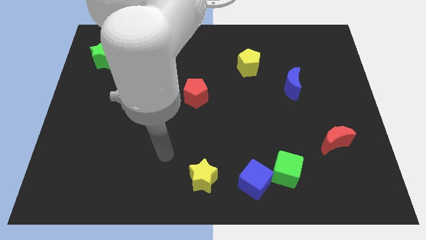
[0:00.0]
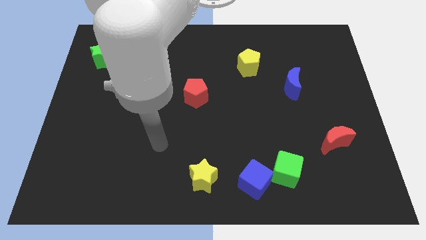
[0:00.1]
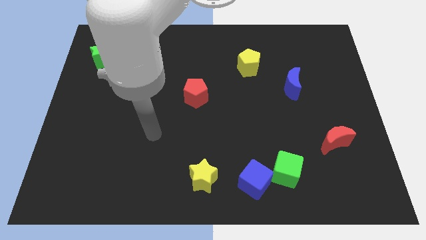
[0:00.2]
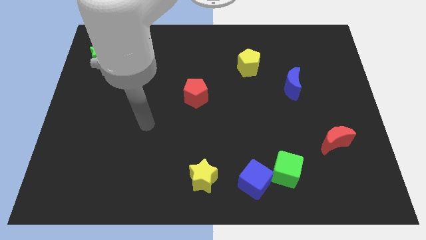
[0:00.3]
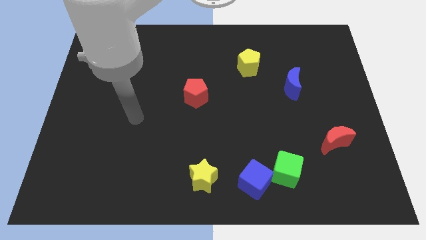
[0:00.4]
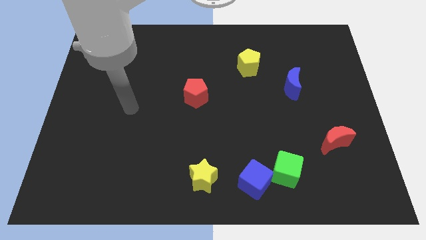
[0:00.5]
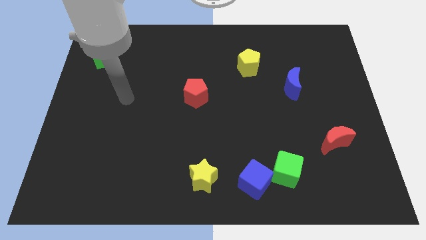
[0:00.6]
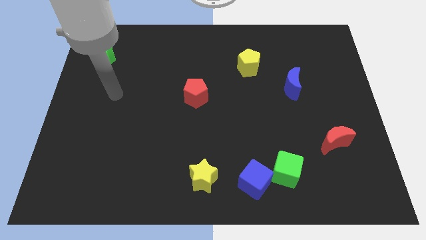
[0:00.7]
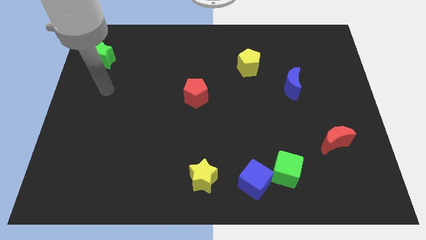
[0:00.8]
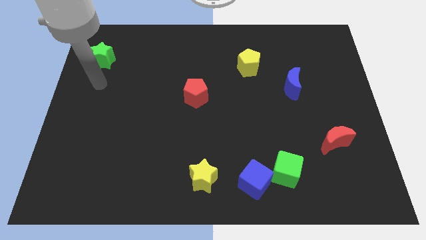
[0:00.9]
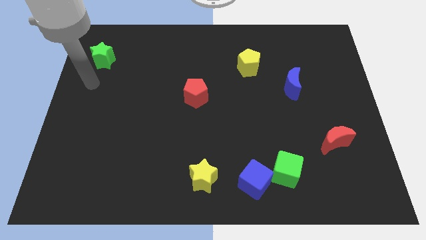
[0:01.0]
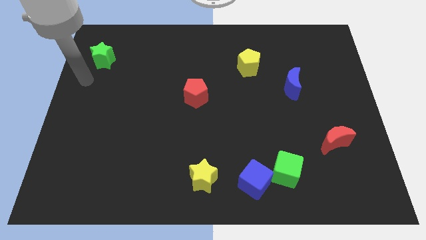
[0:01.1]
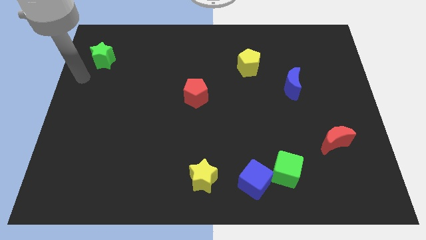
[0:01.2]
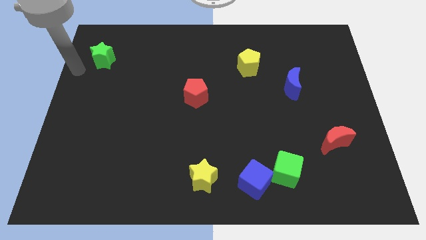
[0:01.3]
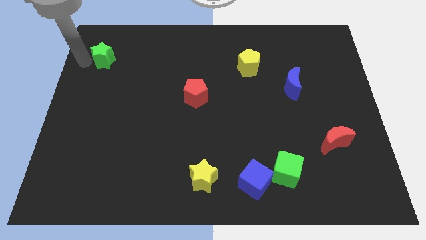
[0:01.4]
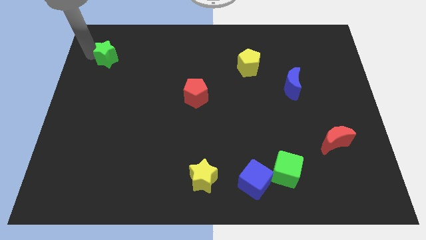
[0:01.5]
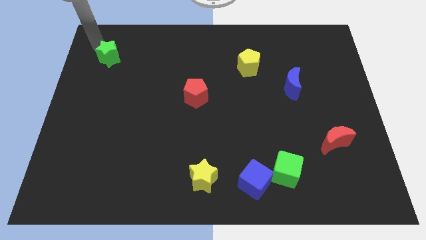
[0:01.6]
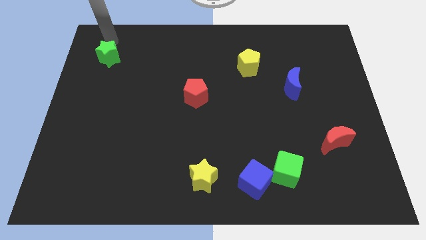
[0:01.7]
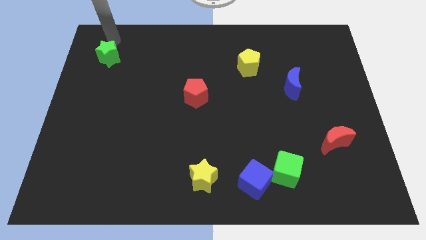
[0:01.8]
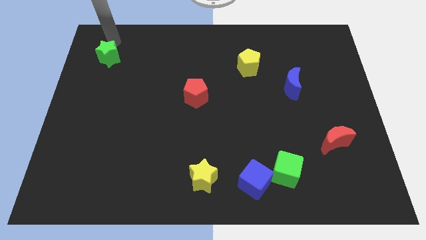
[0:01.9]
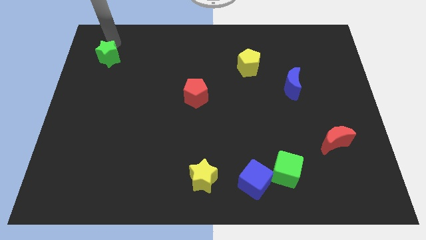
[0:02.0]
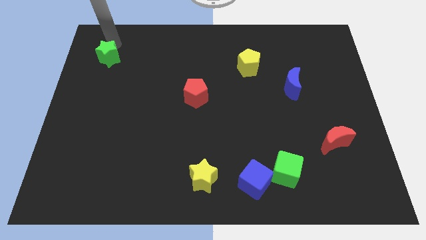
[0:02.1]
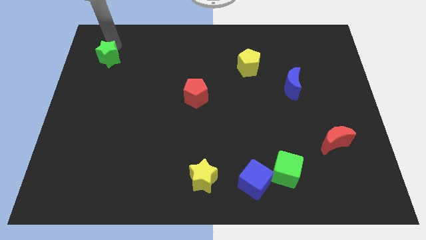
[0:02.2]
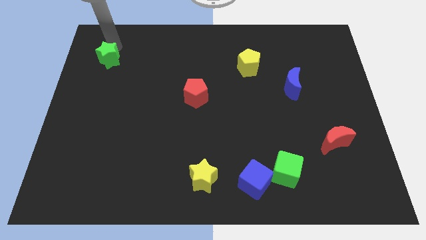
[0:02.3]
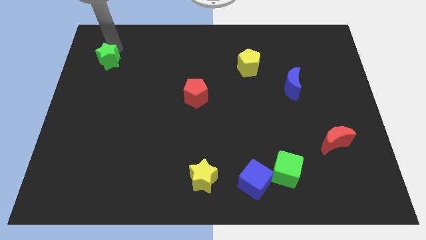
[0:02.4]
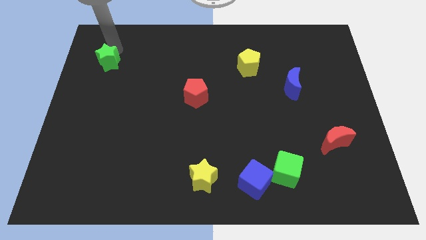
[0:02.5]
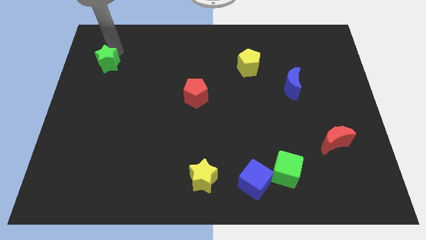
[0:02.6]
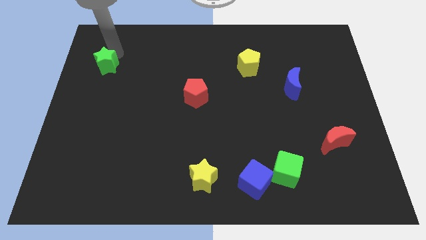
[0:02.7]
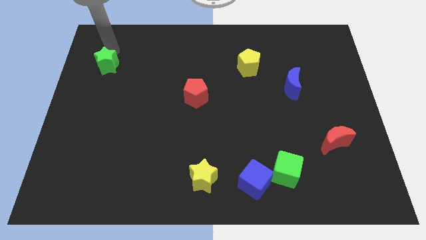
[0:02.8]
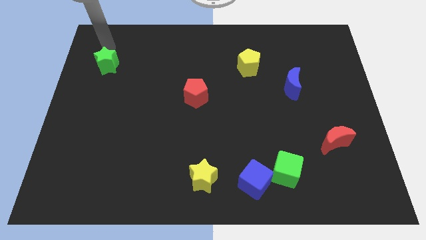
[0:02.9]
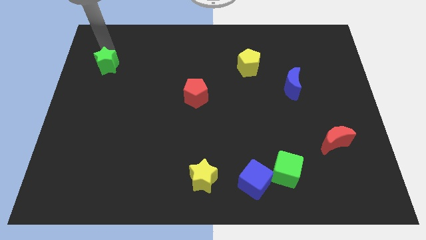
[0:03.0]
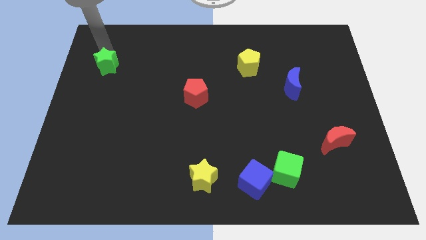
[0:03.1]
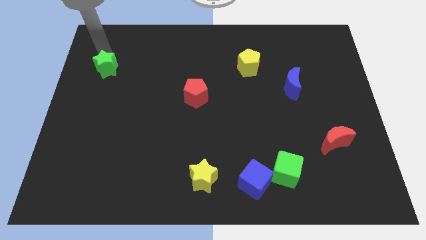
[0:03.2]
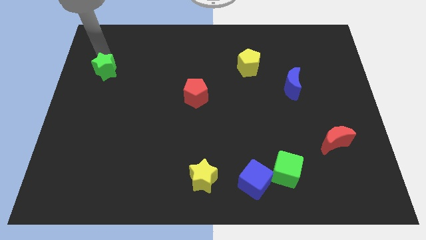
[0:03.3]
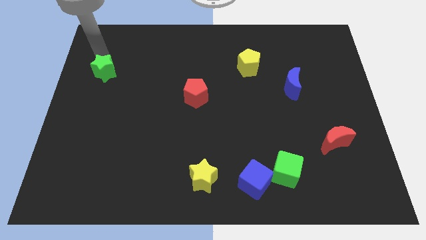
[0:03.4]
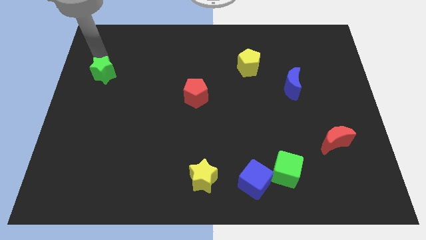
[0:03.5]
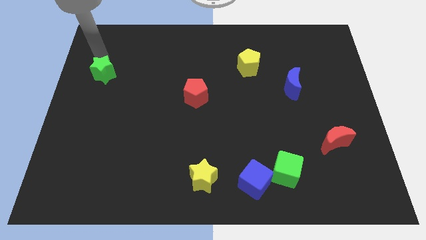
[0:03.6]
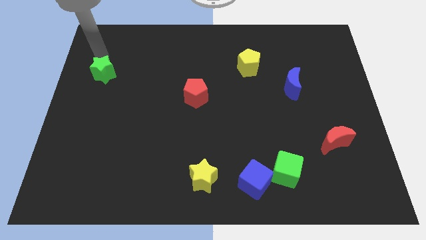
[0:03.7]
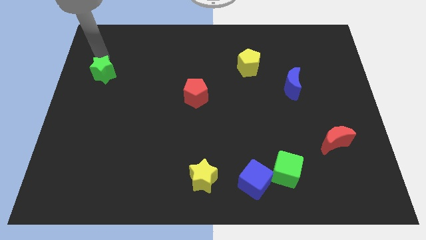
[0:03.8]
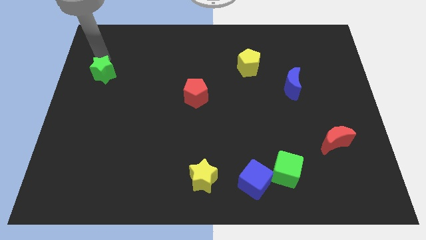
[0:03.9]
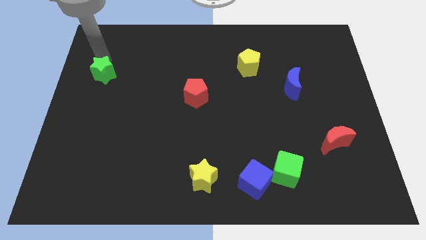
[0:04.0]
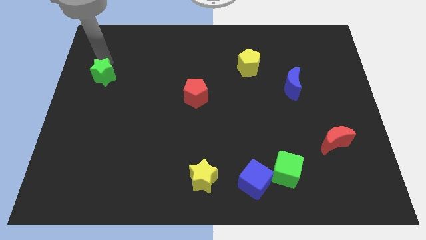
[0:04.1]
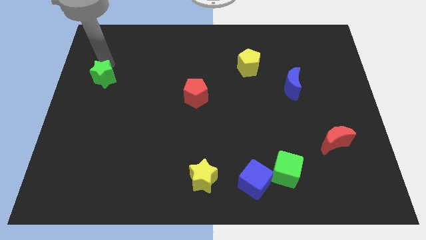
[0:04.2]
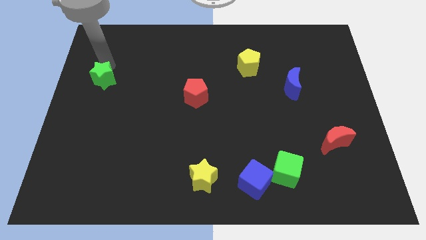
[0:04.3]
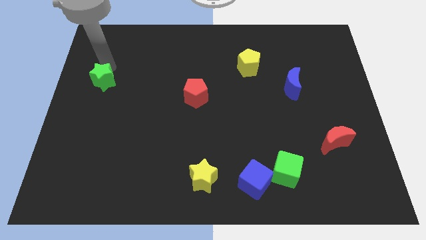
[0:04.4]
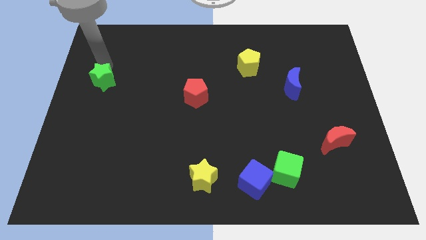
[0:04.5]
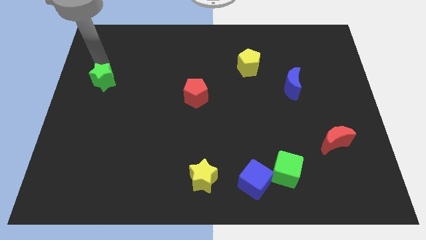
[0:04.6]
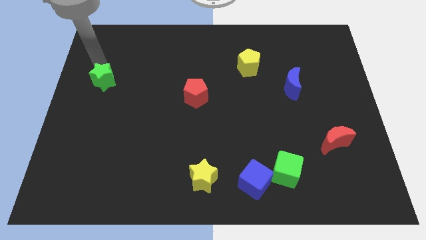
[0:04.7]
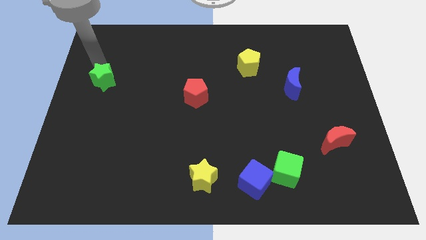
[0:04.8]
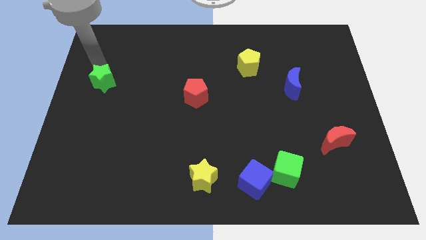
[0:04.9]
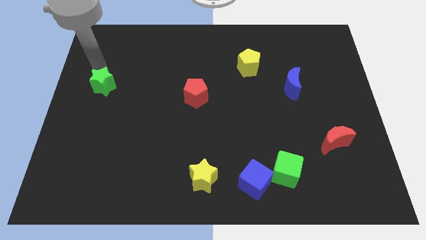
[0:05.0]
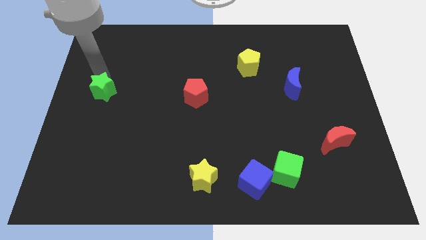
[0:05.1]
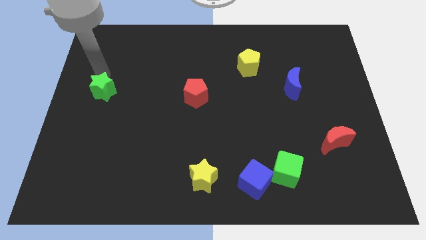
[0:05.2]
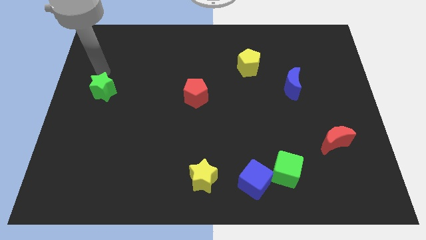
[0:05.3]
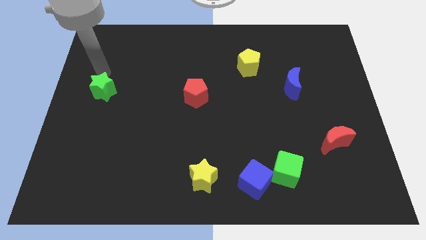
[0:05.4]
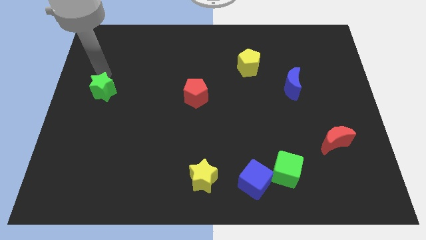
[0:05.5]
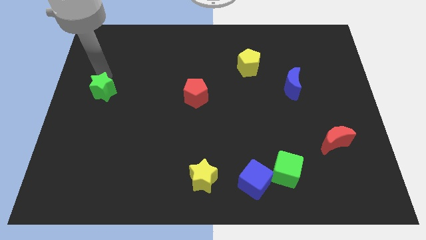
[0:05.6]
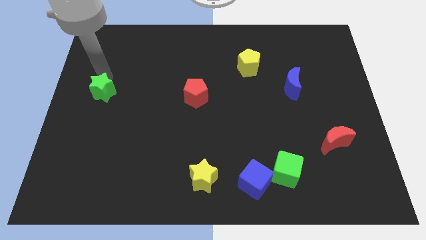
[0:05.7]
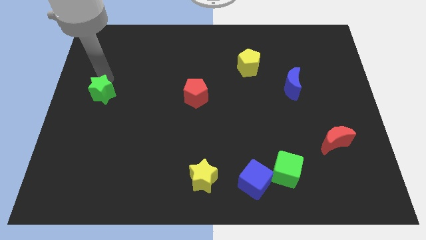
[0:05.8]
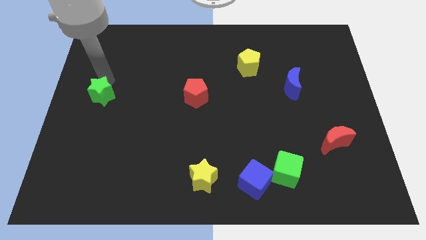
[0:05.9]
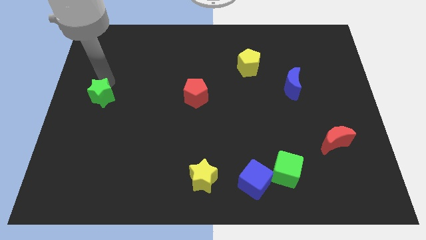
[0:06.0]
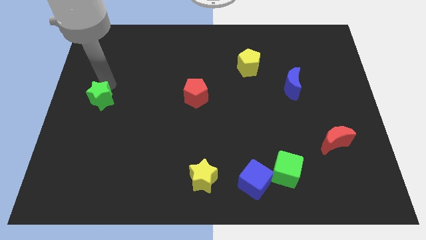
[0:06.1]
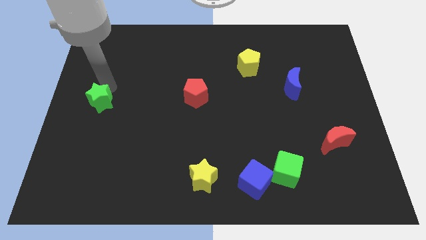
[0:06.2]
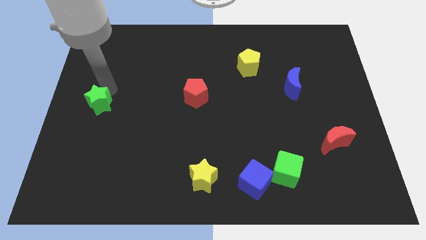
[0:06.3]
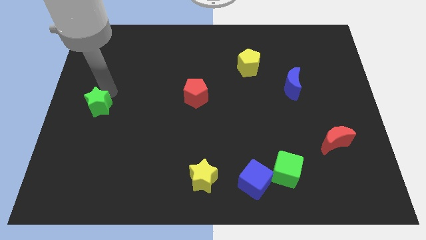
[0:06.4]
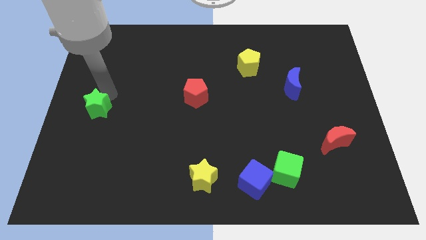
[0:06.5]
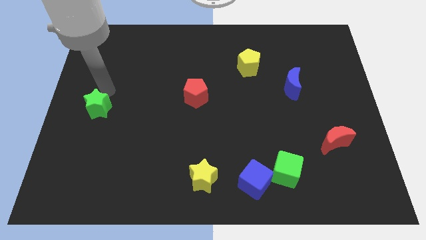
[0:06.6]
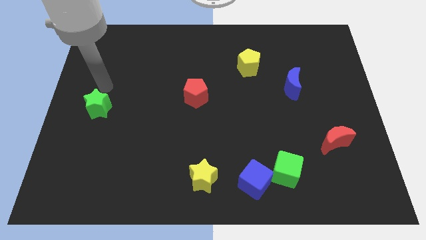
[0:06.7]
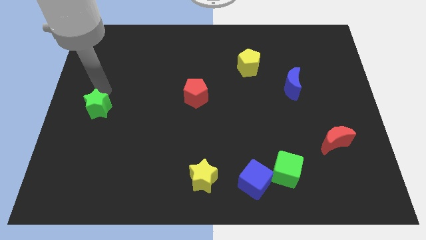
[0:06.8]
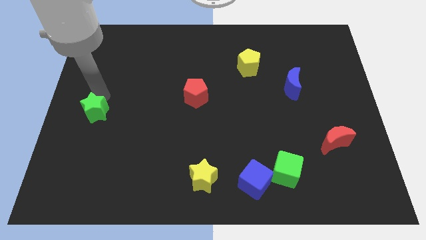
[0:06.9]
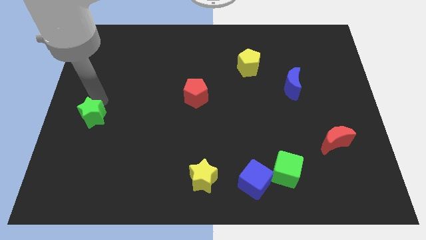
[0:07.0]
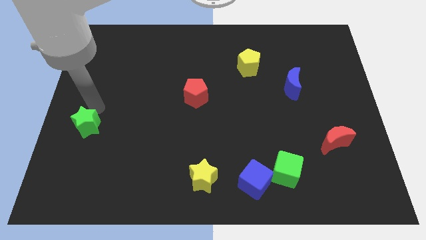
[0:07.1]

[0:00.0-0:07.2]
slide the green star downwards

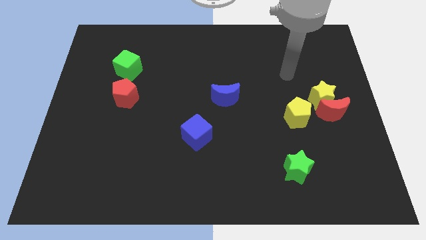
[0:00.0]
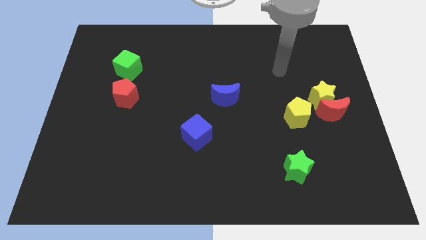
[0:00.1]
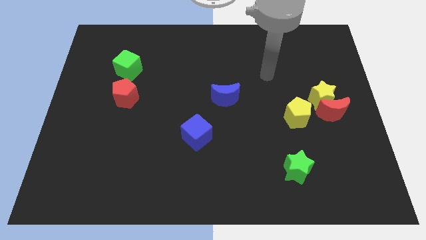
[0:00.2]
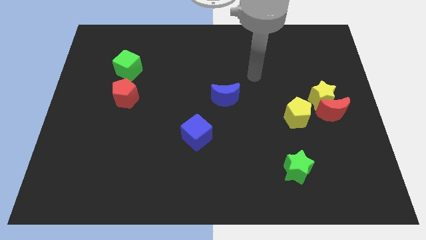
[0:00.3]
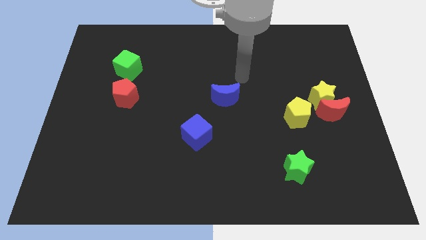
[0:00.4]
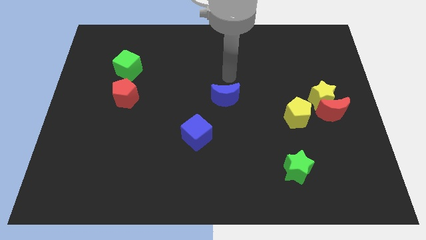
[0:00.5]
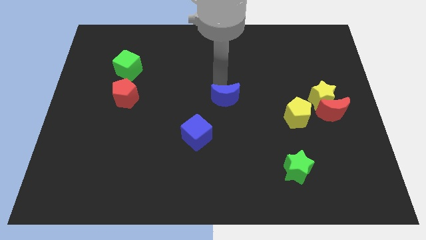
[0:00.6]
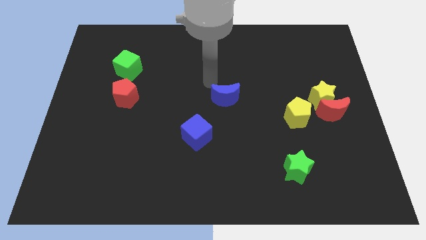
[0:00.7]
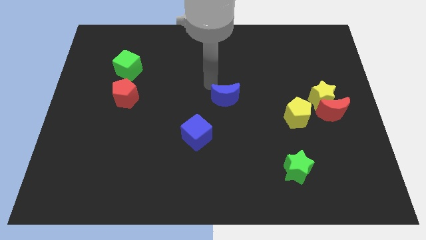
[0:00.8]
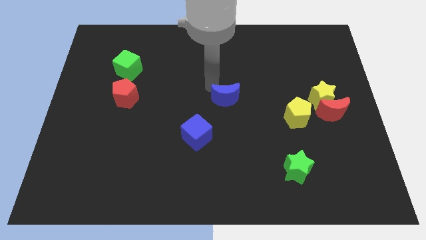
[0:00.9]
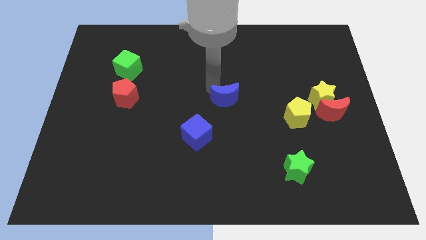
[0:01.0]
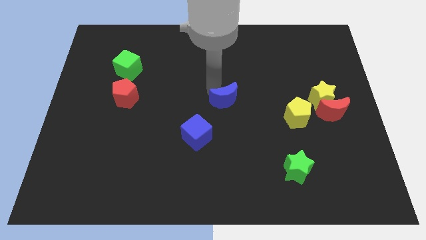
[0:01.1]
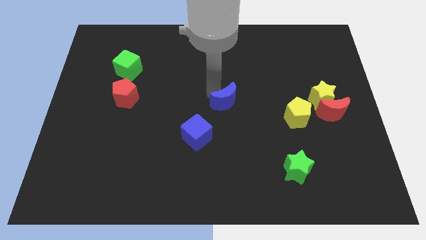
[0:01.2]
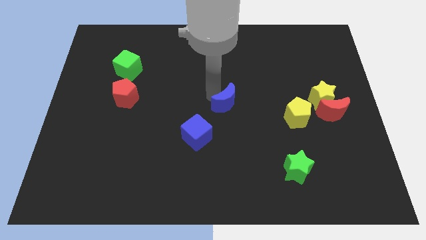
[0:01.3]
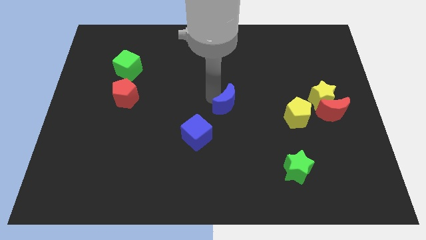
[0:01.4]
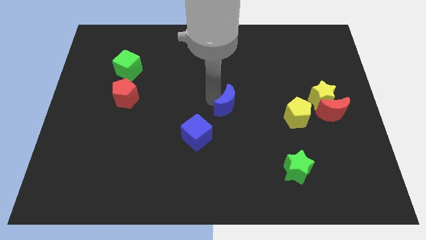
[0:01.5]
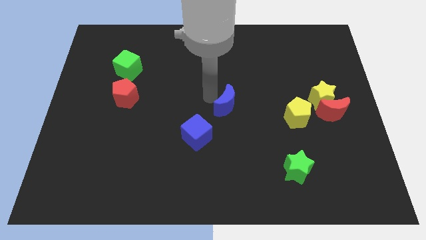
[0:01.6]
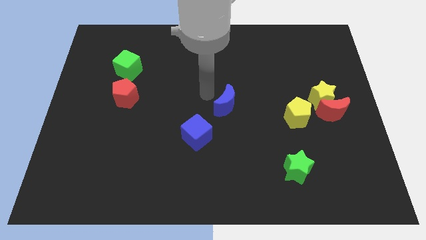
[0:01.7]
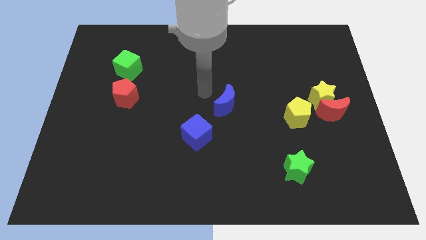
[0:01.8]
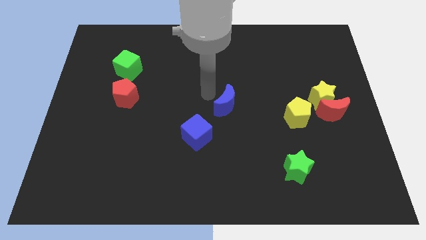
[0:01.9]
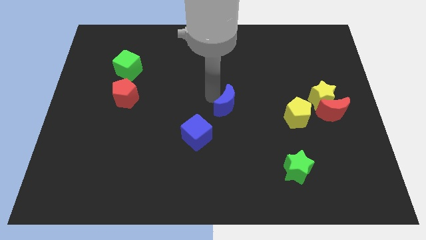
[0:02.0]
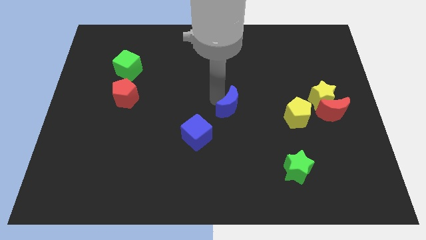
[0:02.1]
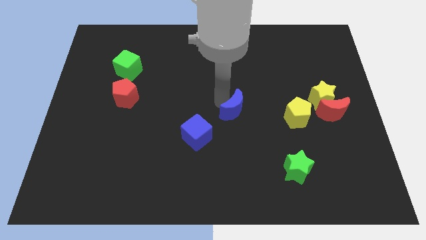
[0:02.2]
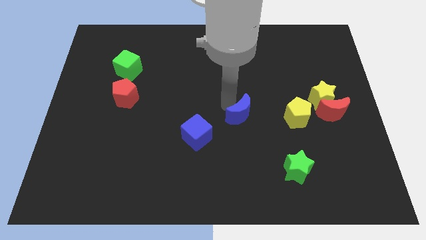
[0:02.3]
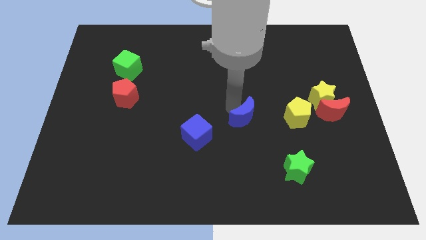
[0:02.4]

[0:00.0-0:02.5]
slide the blue moon downwards and then right somewhat
